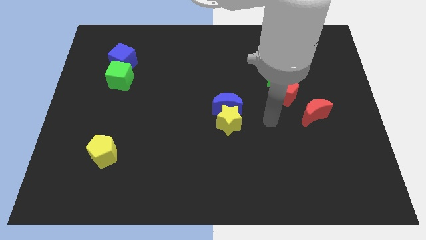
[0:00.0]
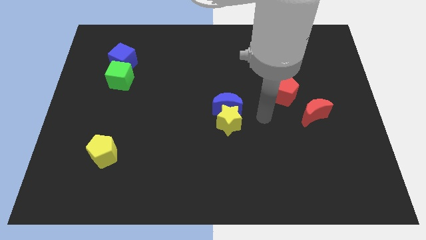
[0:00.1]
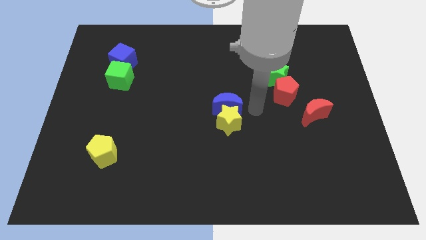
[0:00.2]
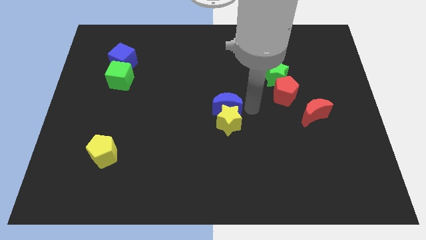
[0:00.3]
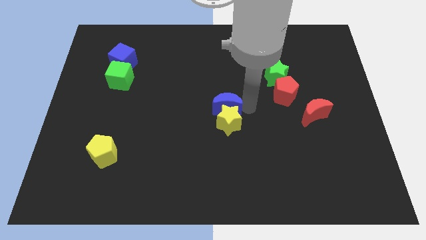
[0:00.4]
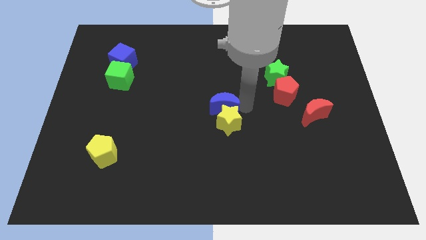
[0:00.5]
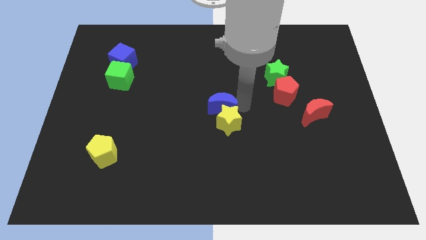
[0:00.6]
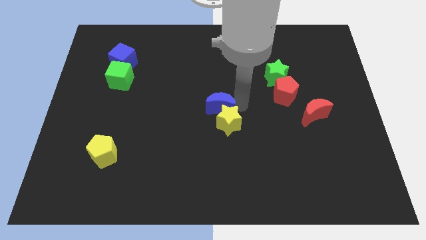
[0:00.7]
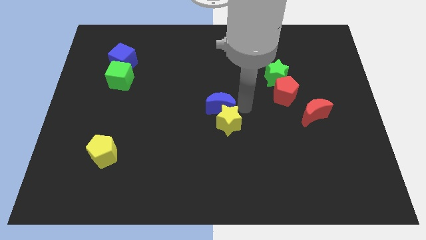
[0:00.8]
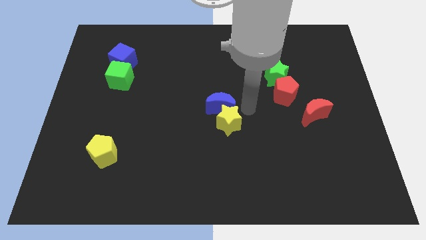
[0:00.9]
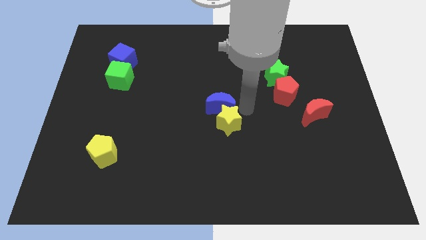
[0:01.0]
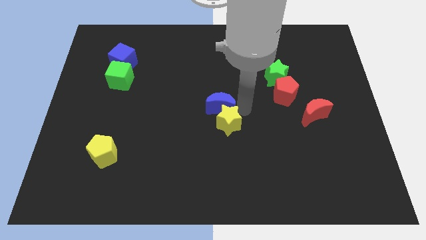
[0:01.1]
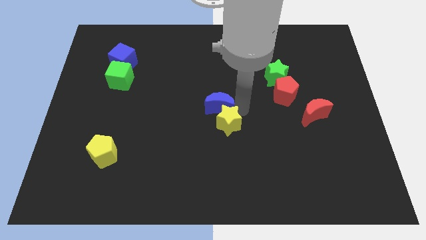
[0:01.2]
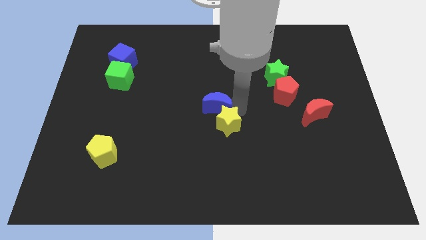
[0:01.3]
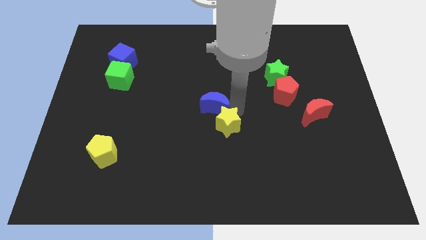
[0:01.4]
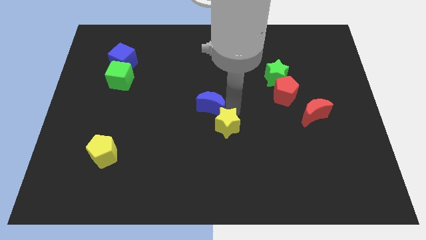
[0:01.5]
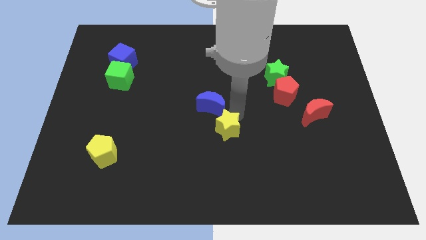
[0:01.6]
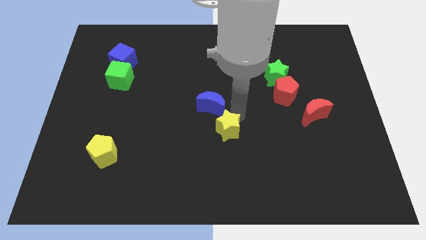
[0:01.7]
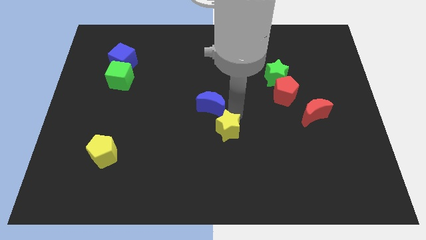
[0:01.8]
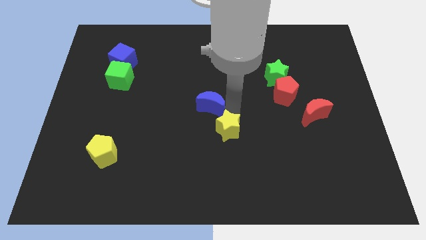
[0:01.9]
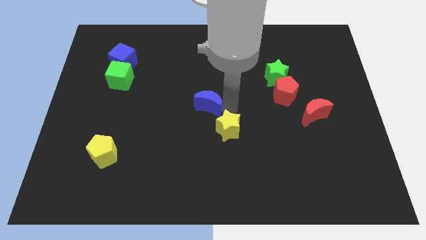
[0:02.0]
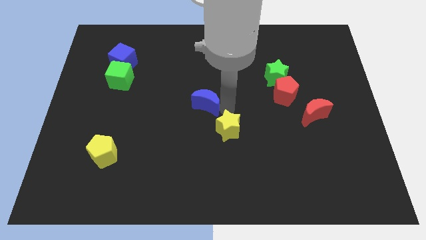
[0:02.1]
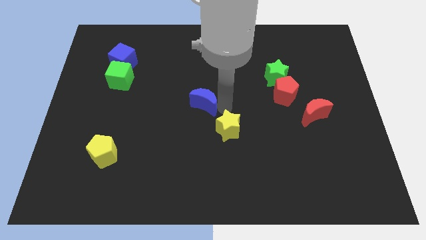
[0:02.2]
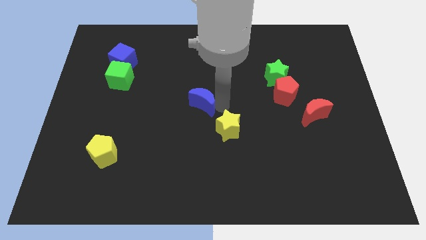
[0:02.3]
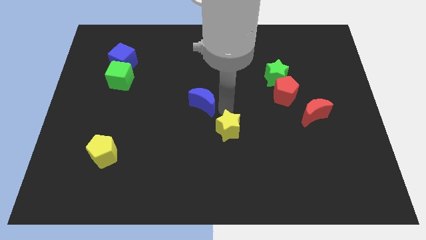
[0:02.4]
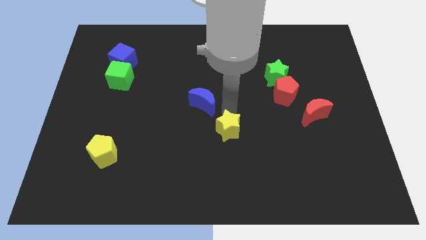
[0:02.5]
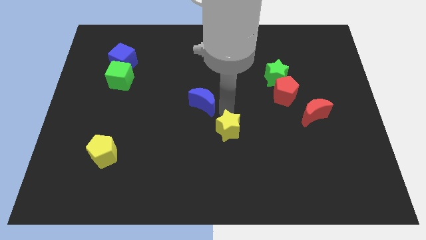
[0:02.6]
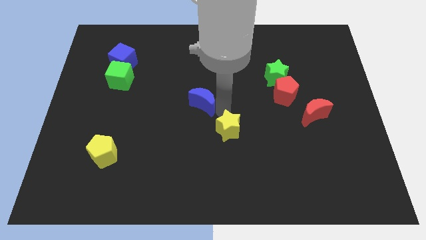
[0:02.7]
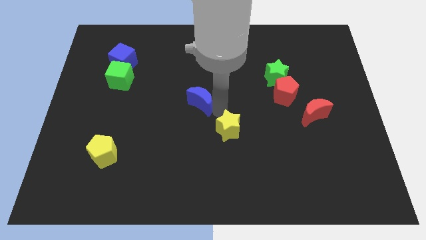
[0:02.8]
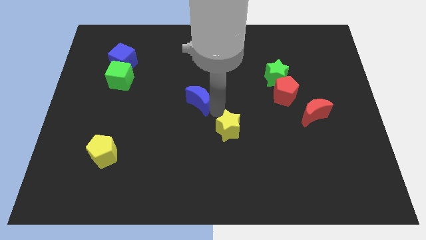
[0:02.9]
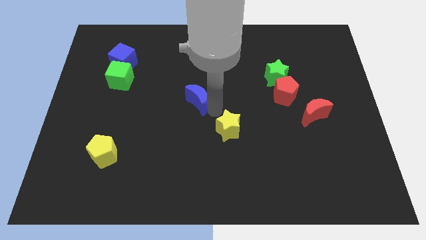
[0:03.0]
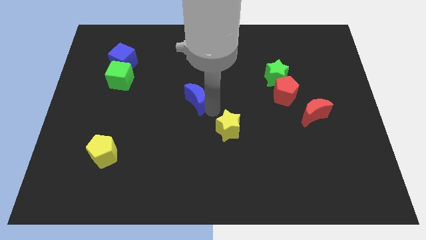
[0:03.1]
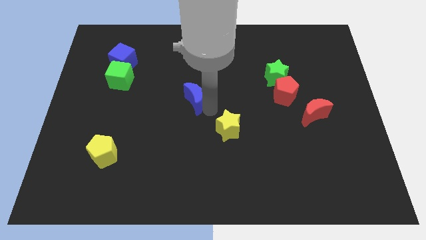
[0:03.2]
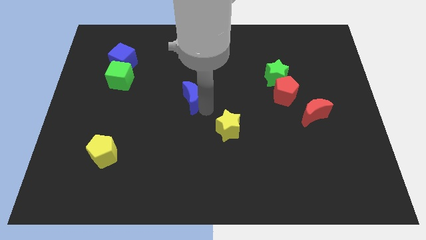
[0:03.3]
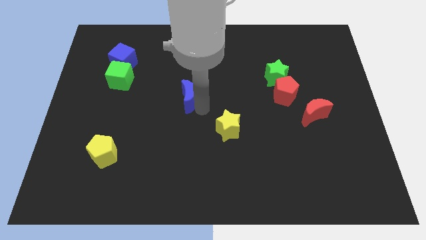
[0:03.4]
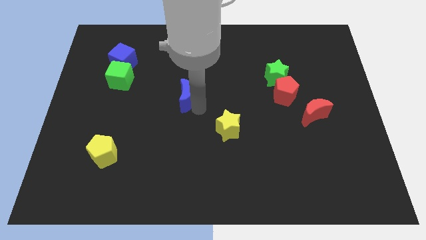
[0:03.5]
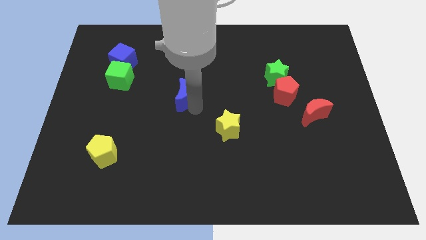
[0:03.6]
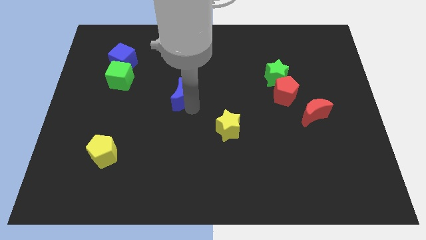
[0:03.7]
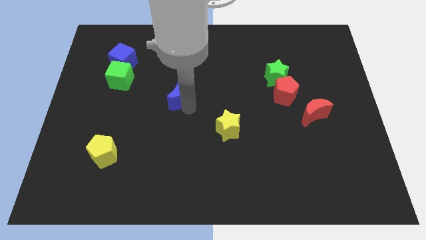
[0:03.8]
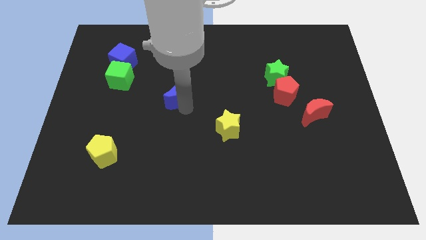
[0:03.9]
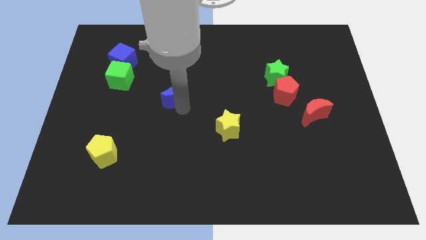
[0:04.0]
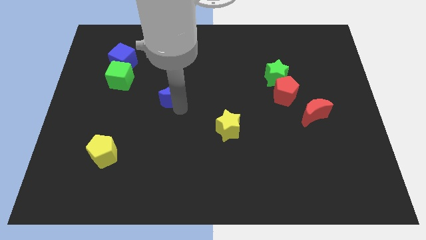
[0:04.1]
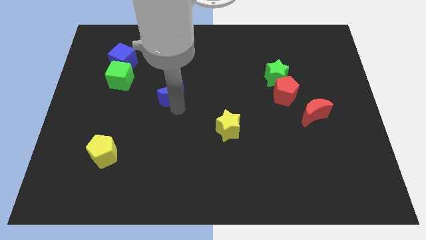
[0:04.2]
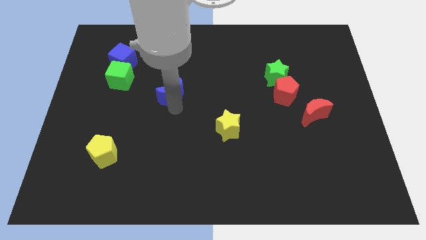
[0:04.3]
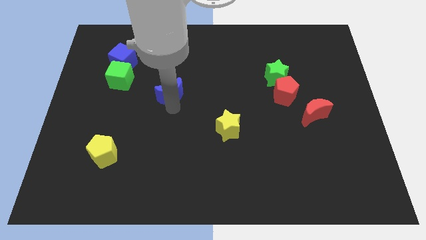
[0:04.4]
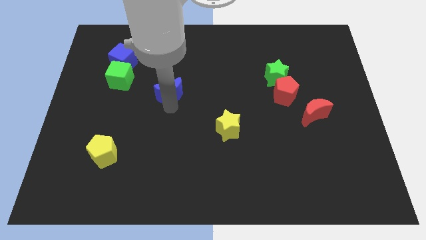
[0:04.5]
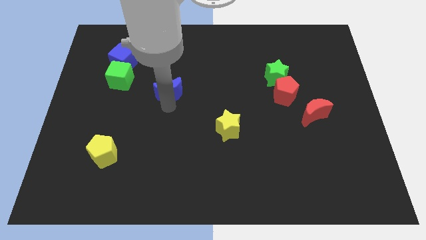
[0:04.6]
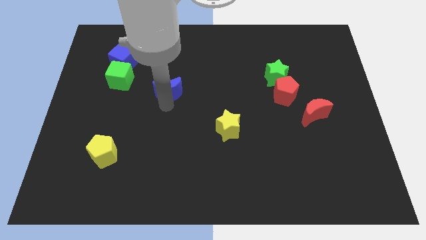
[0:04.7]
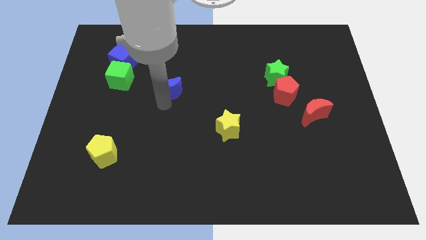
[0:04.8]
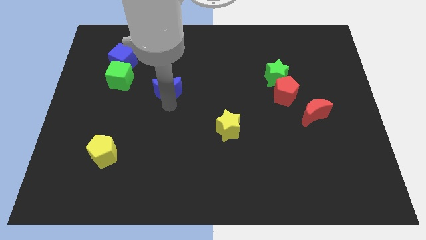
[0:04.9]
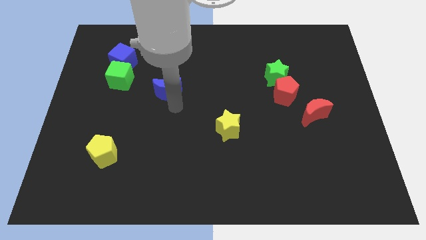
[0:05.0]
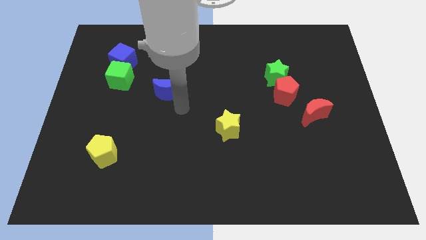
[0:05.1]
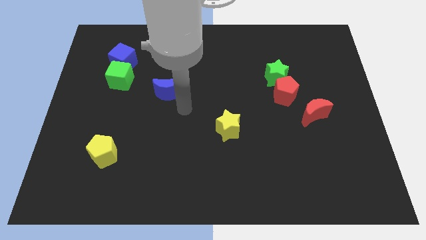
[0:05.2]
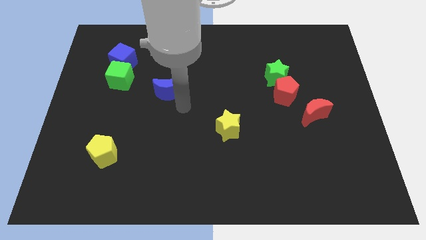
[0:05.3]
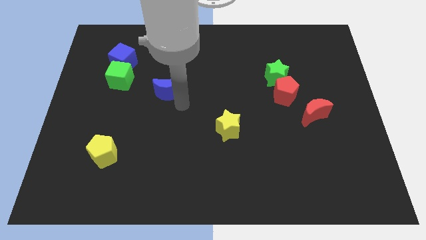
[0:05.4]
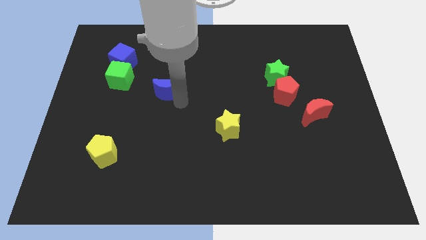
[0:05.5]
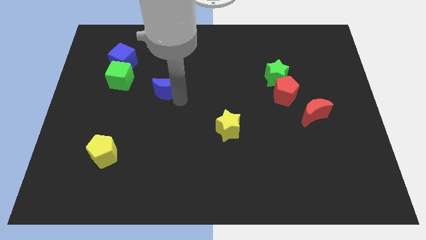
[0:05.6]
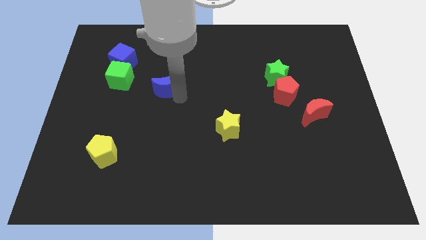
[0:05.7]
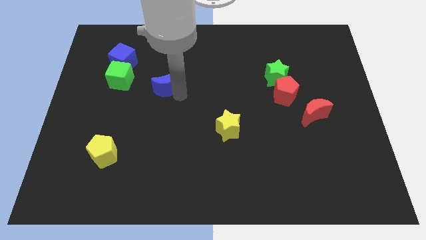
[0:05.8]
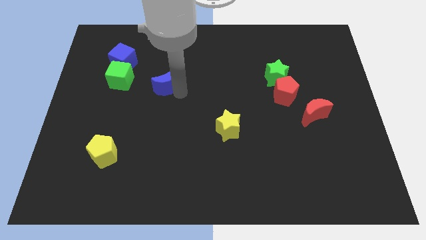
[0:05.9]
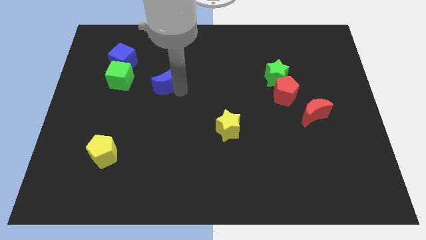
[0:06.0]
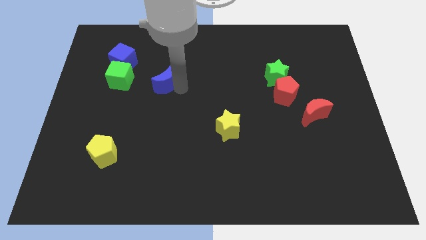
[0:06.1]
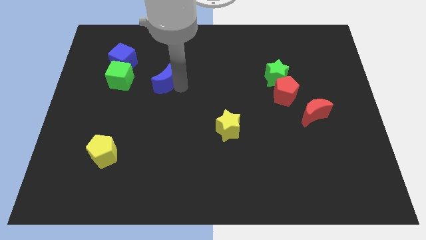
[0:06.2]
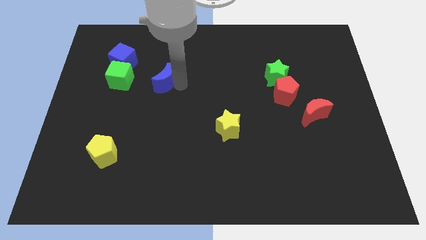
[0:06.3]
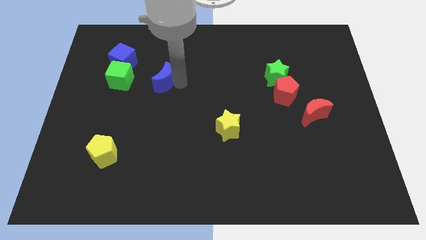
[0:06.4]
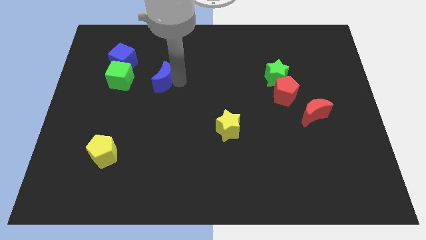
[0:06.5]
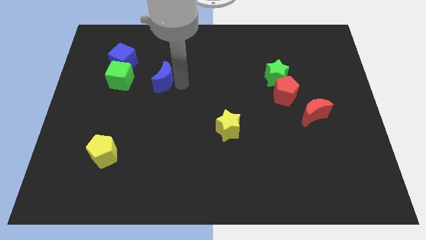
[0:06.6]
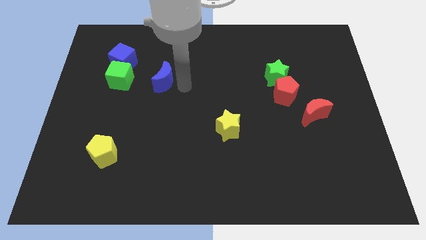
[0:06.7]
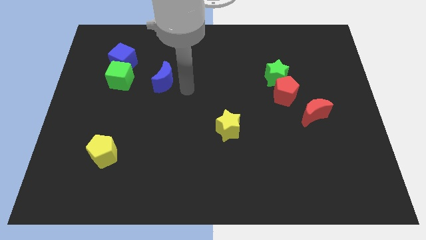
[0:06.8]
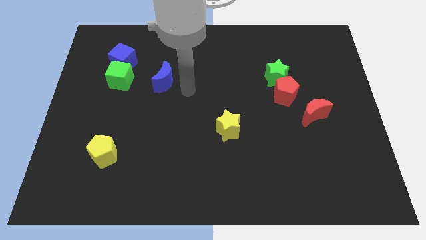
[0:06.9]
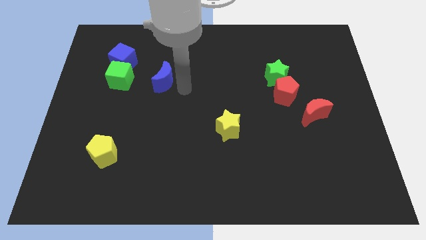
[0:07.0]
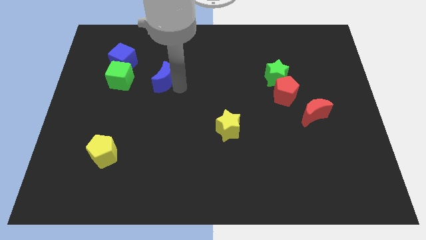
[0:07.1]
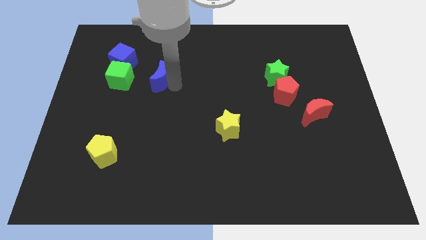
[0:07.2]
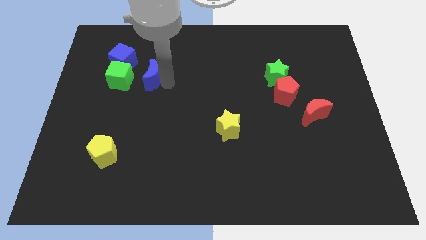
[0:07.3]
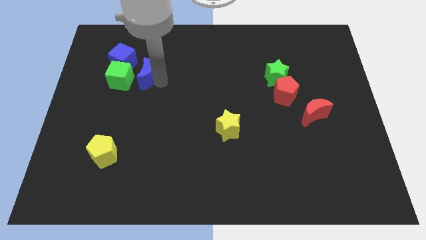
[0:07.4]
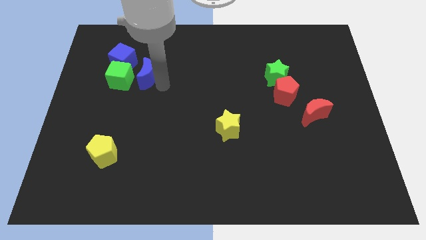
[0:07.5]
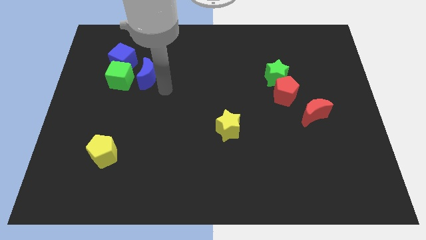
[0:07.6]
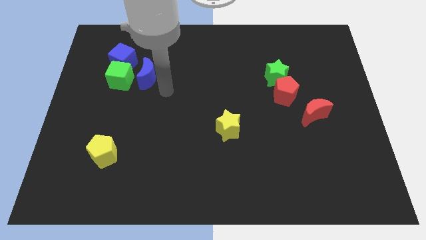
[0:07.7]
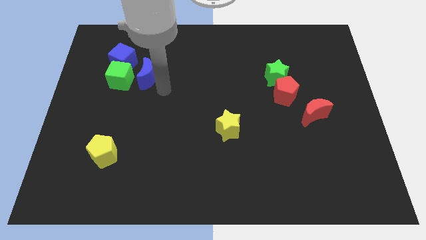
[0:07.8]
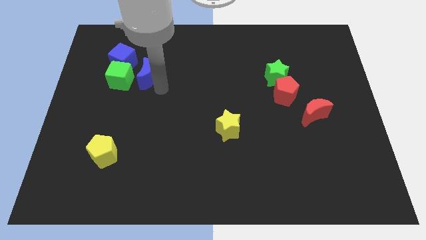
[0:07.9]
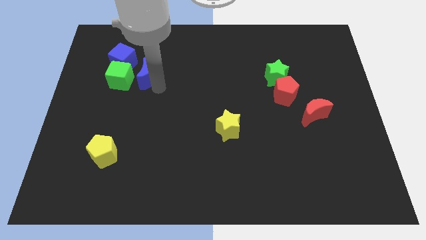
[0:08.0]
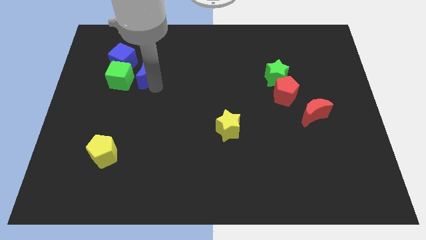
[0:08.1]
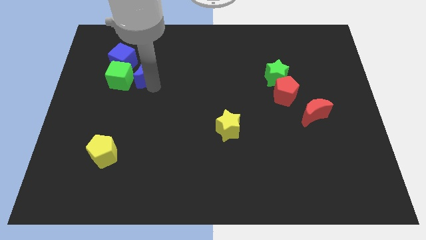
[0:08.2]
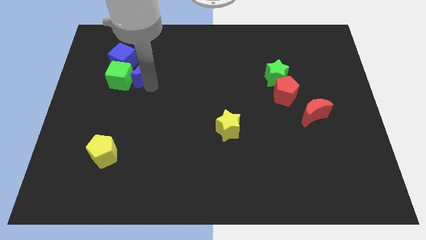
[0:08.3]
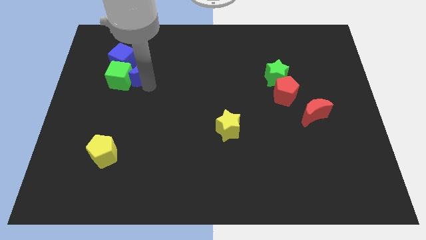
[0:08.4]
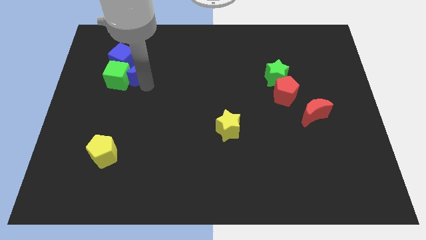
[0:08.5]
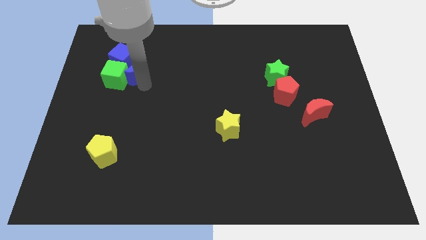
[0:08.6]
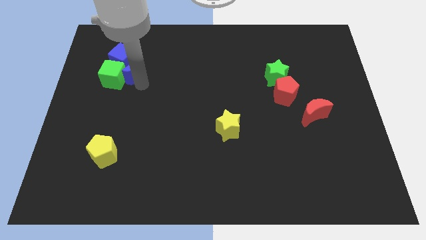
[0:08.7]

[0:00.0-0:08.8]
push the blue moon close to the blue cube
